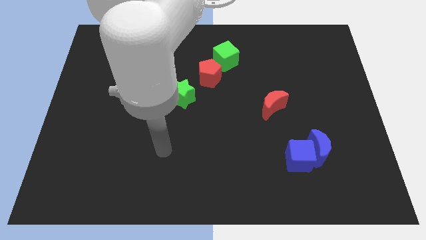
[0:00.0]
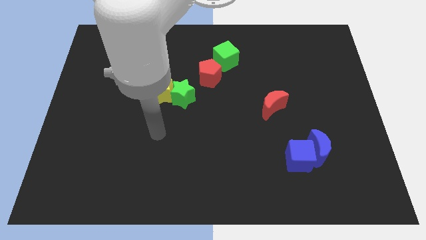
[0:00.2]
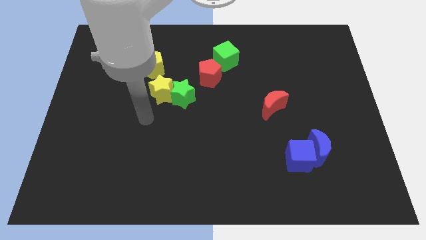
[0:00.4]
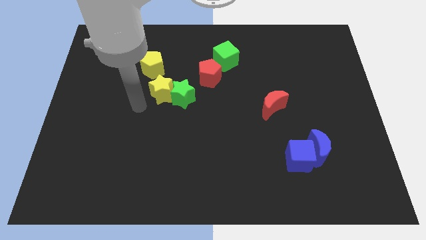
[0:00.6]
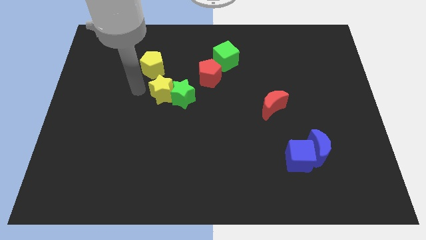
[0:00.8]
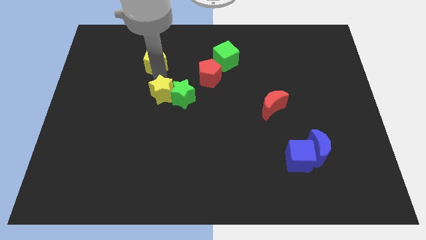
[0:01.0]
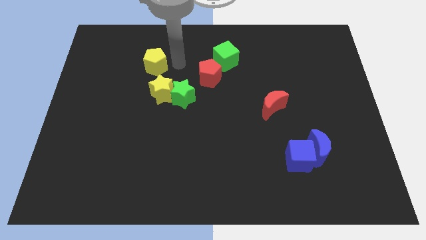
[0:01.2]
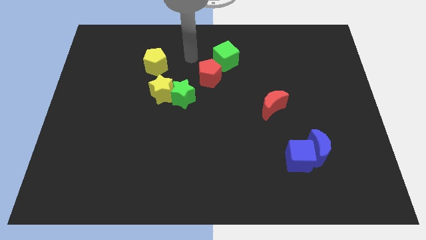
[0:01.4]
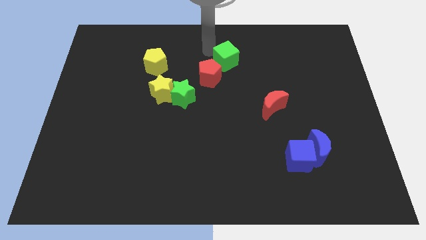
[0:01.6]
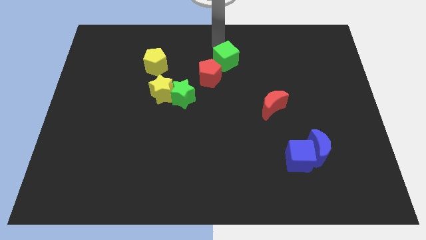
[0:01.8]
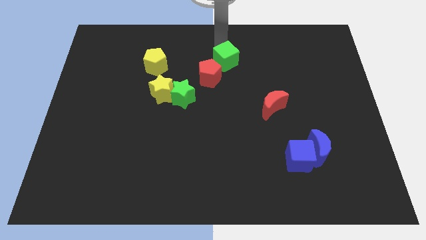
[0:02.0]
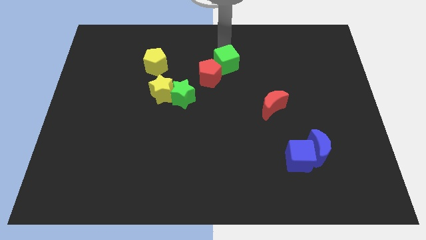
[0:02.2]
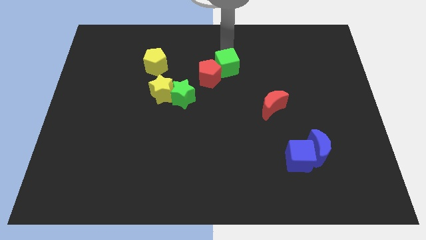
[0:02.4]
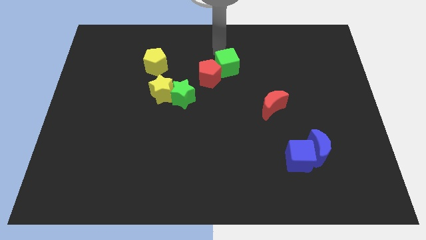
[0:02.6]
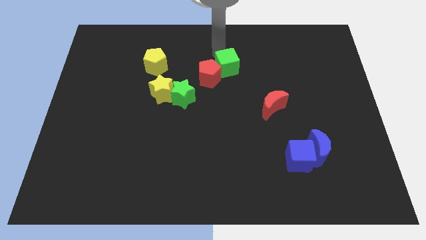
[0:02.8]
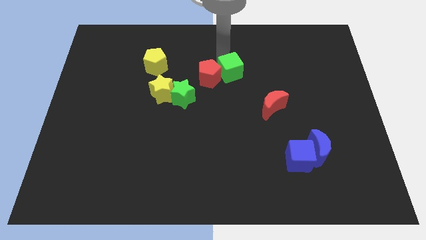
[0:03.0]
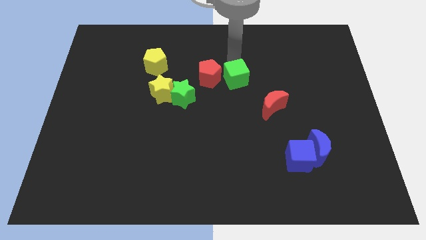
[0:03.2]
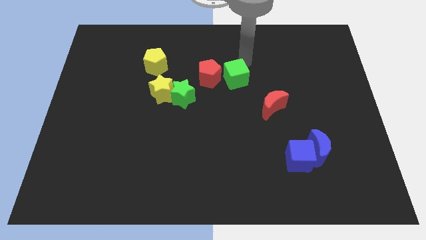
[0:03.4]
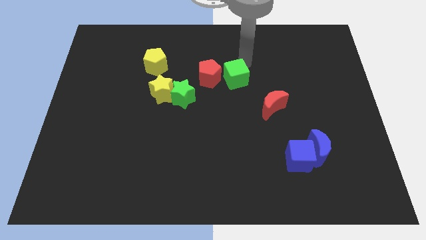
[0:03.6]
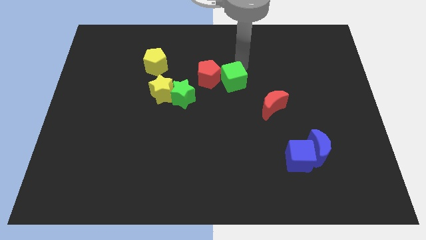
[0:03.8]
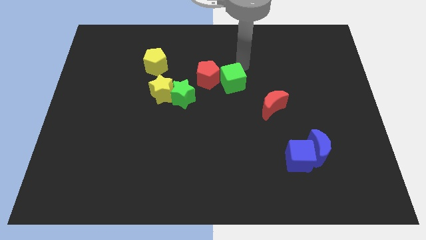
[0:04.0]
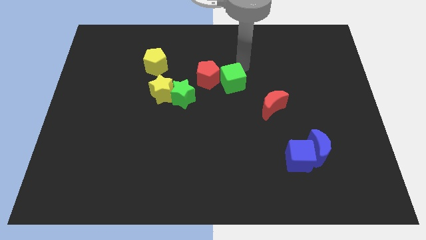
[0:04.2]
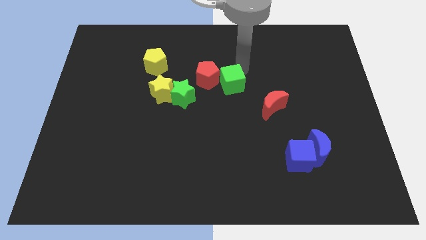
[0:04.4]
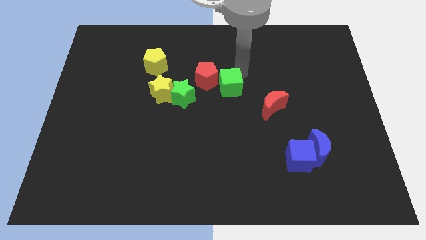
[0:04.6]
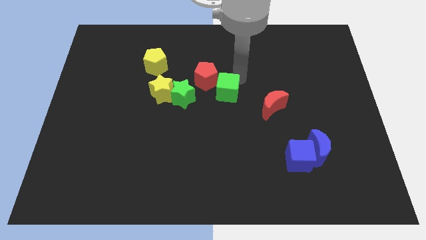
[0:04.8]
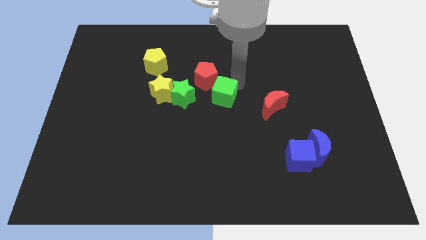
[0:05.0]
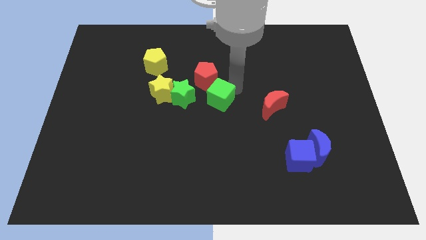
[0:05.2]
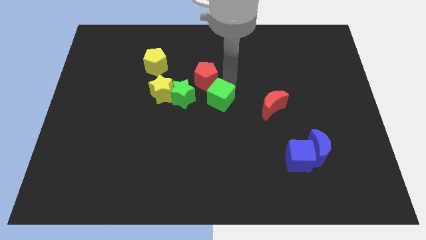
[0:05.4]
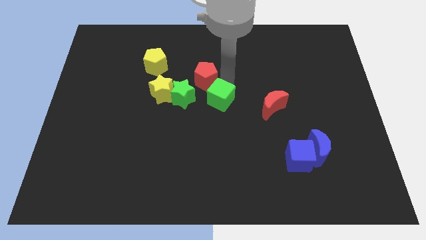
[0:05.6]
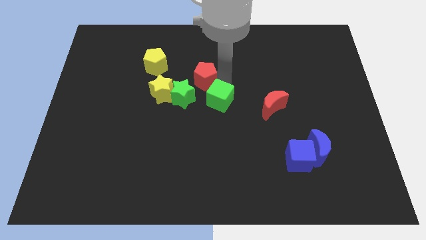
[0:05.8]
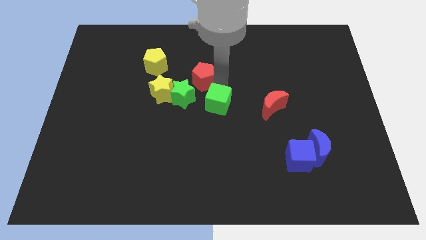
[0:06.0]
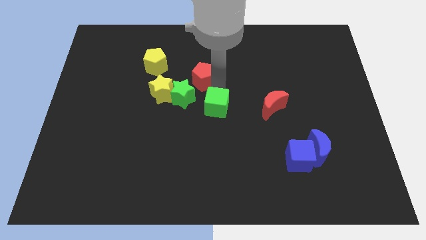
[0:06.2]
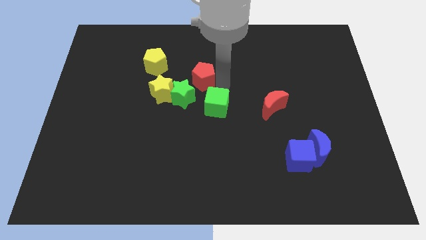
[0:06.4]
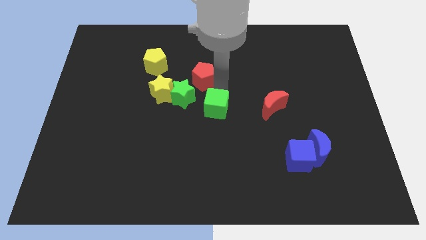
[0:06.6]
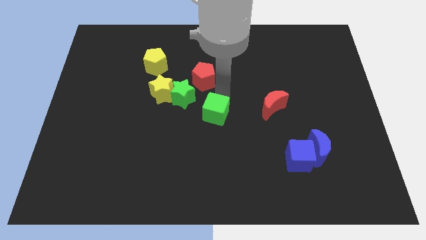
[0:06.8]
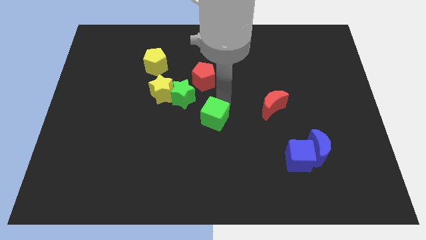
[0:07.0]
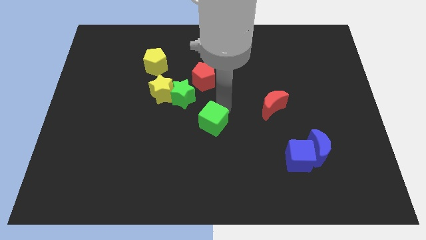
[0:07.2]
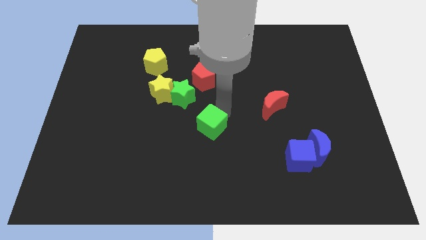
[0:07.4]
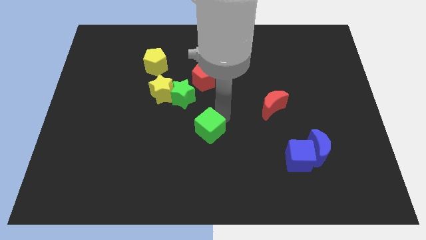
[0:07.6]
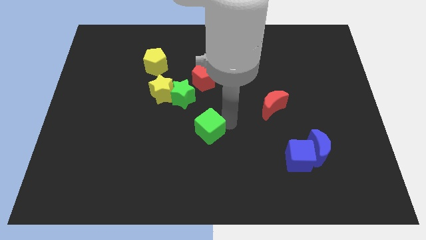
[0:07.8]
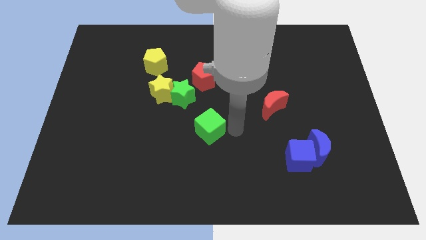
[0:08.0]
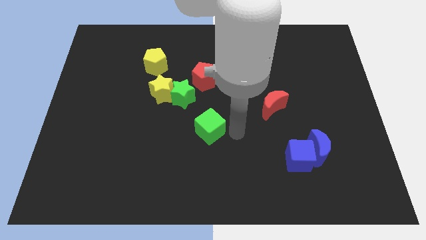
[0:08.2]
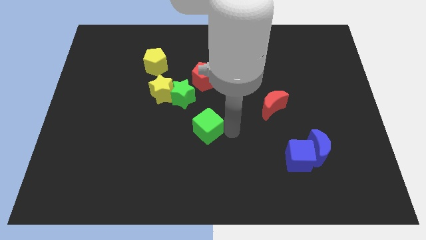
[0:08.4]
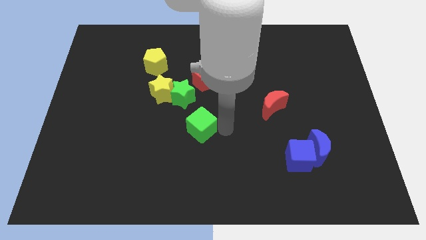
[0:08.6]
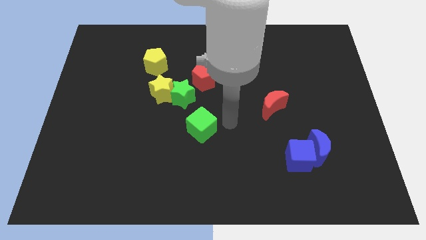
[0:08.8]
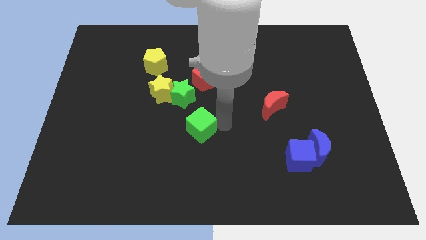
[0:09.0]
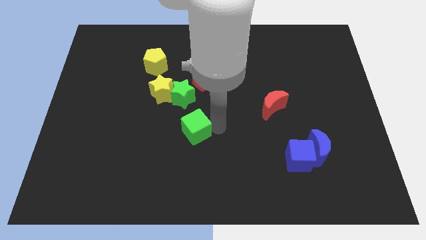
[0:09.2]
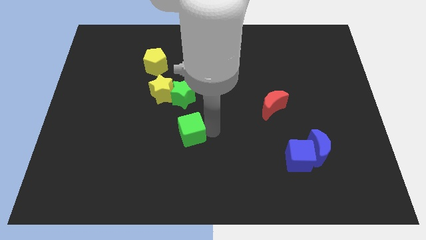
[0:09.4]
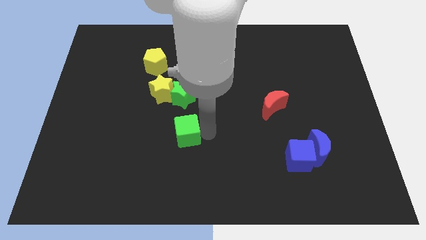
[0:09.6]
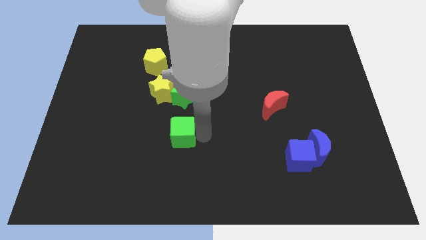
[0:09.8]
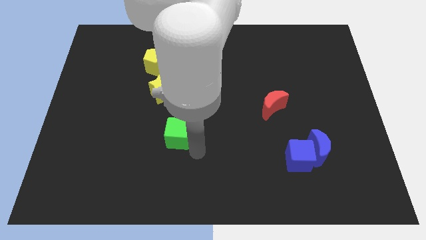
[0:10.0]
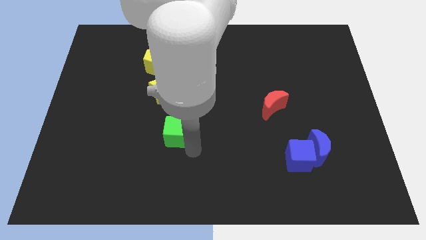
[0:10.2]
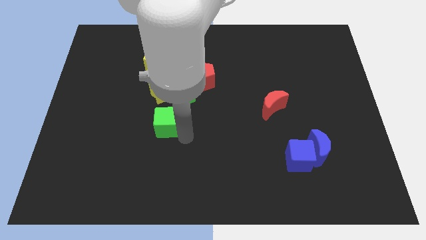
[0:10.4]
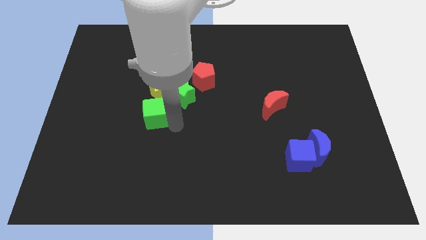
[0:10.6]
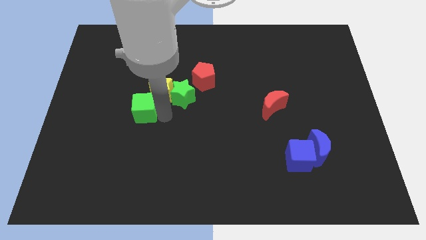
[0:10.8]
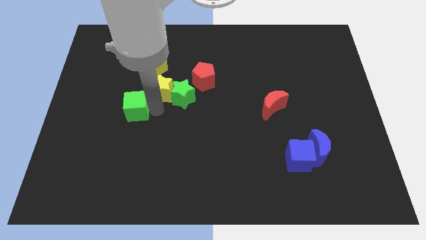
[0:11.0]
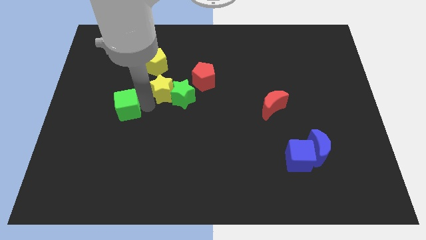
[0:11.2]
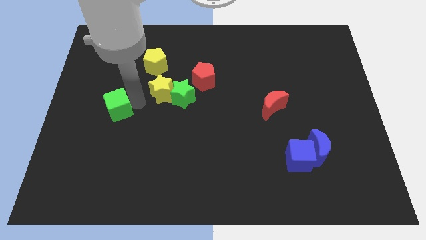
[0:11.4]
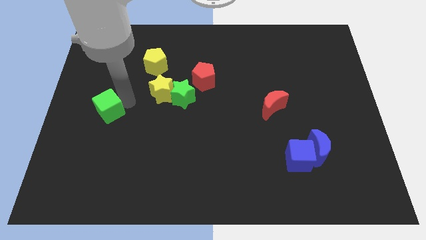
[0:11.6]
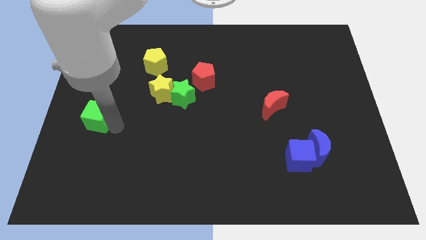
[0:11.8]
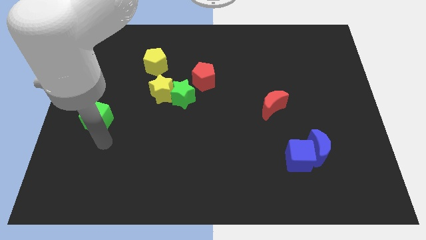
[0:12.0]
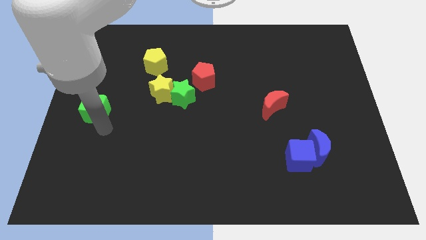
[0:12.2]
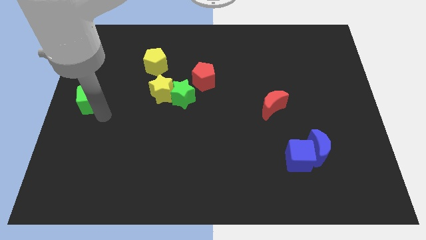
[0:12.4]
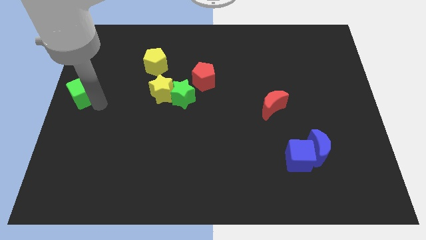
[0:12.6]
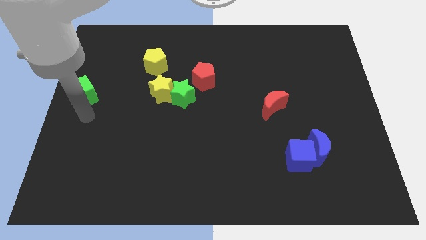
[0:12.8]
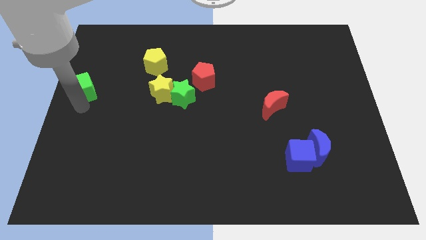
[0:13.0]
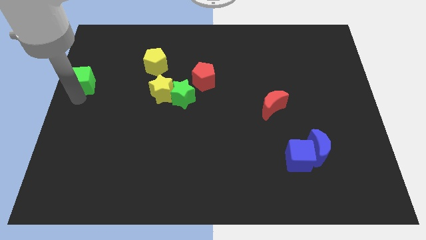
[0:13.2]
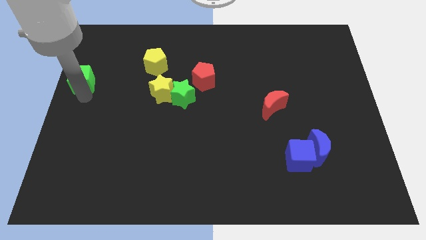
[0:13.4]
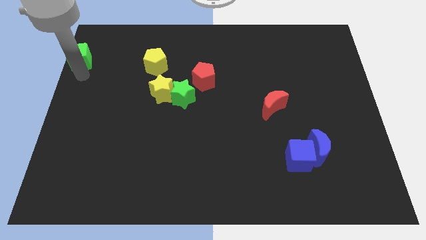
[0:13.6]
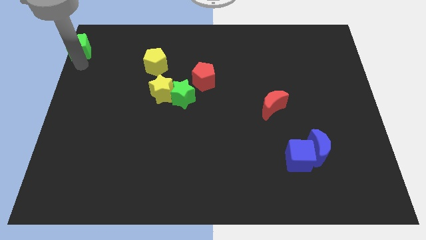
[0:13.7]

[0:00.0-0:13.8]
put the green cube to the top left of the board
